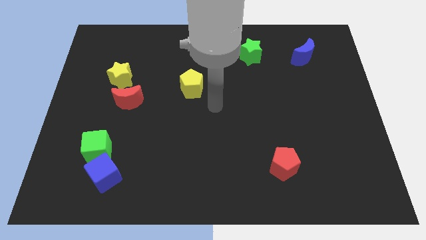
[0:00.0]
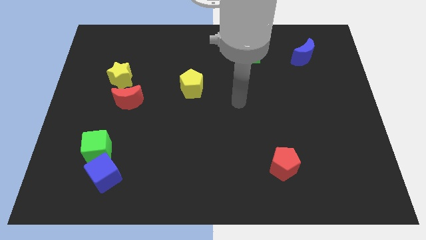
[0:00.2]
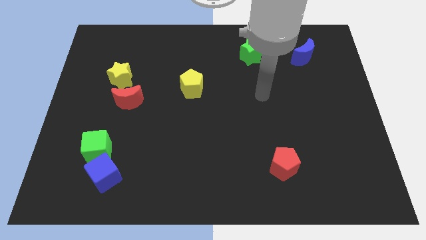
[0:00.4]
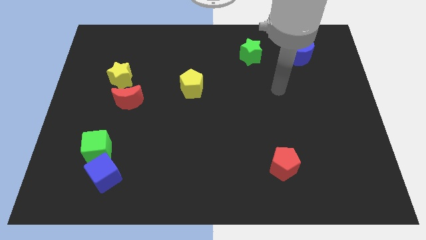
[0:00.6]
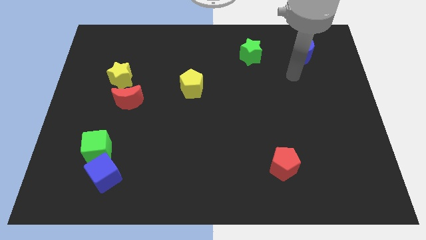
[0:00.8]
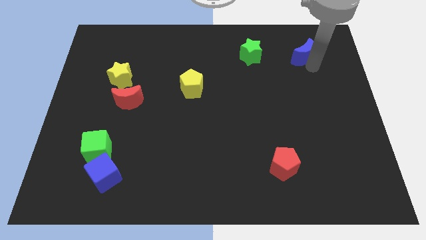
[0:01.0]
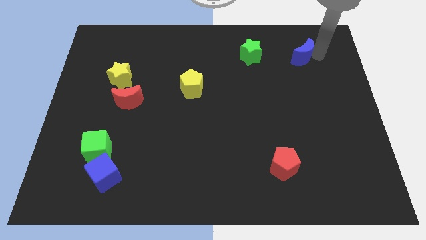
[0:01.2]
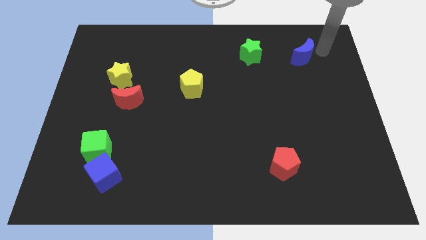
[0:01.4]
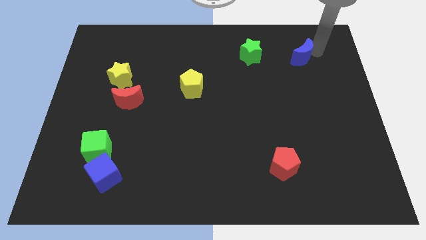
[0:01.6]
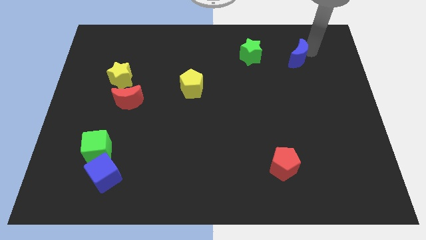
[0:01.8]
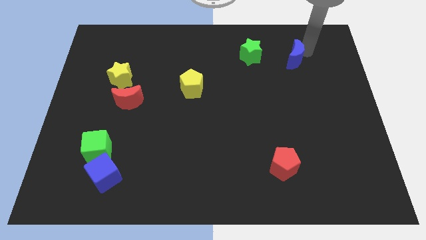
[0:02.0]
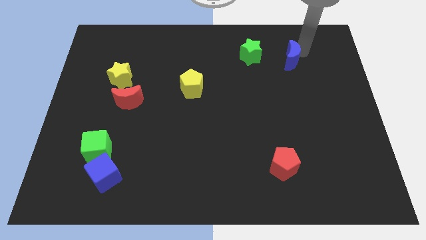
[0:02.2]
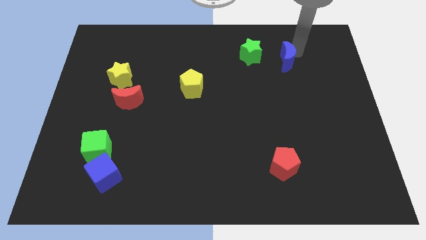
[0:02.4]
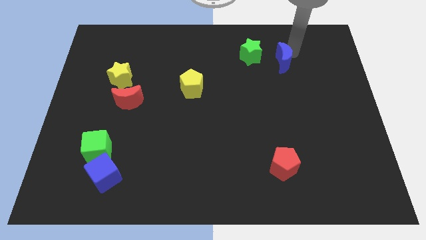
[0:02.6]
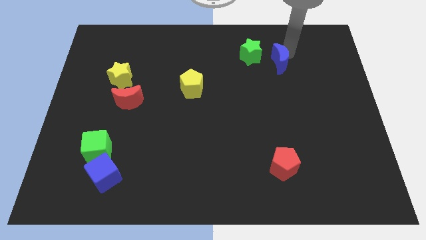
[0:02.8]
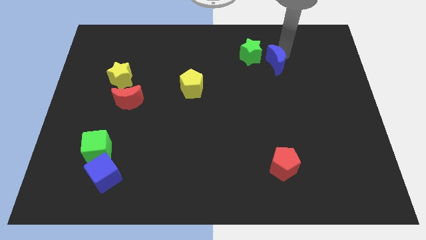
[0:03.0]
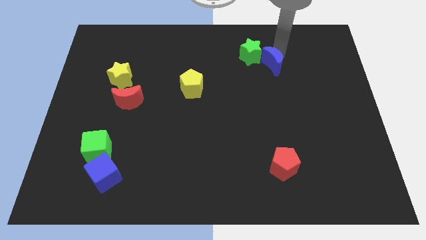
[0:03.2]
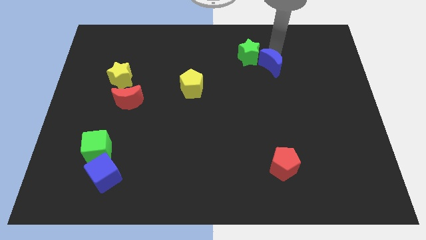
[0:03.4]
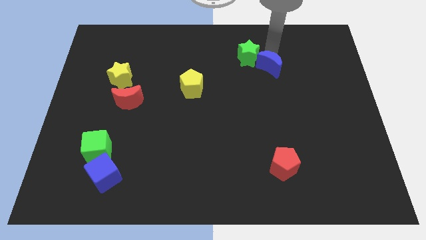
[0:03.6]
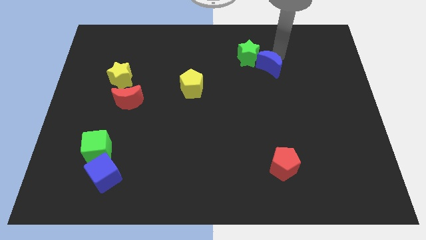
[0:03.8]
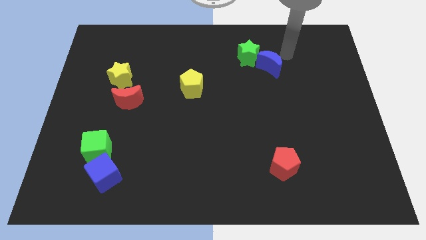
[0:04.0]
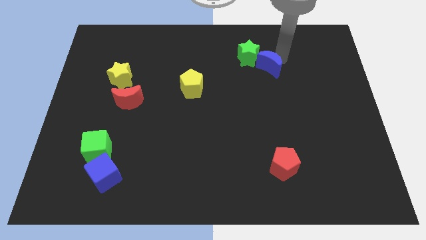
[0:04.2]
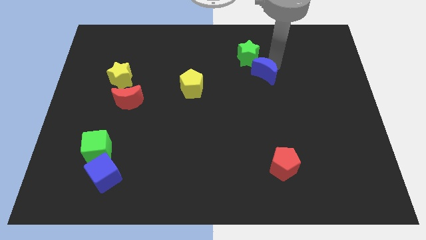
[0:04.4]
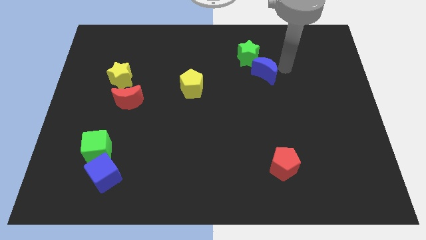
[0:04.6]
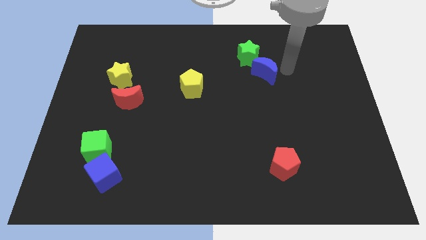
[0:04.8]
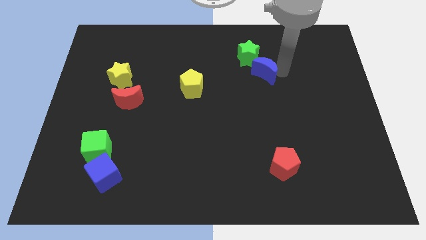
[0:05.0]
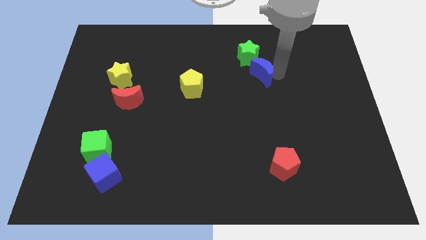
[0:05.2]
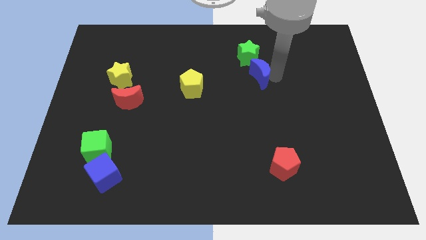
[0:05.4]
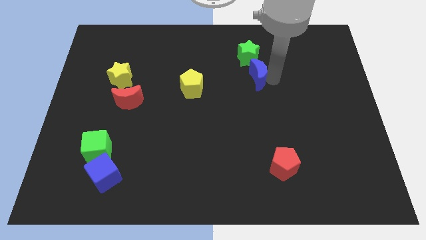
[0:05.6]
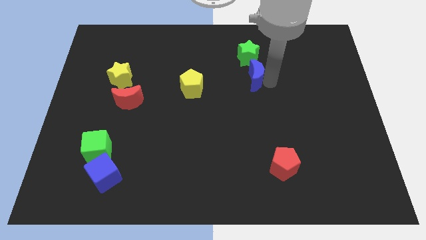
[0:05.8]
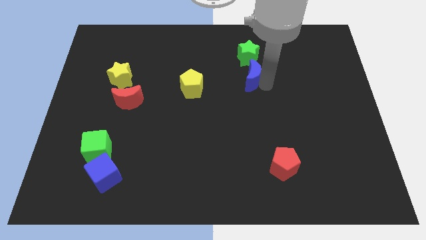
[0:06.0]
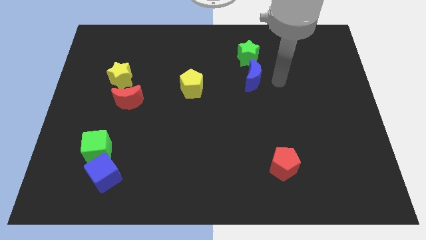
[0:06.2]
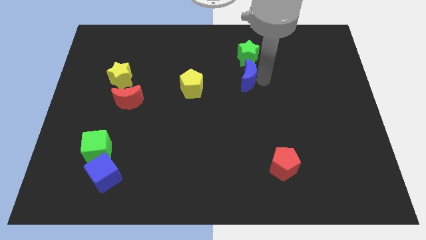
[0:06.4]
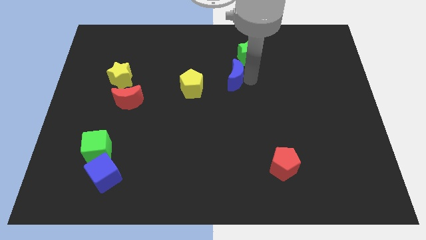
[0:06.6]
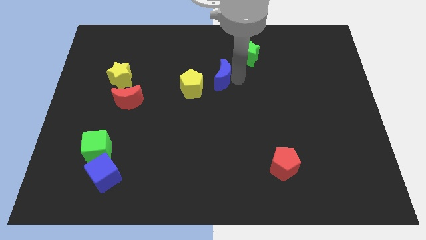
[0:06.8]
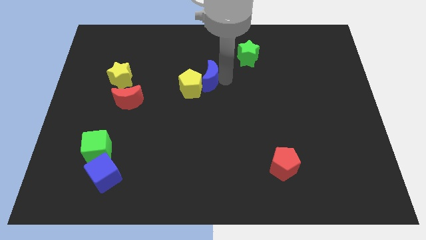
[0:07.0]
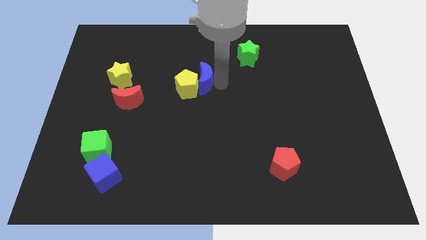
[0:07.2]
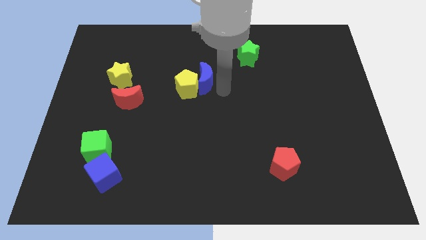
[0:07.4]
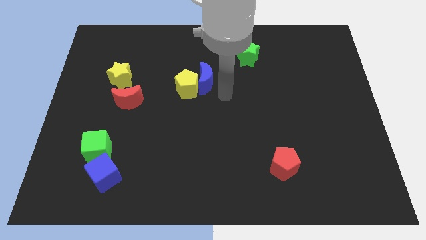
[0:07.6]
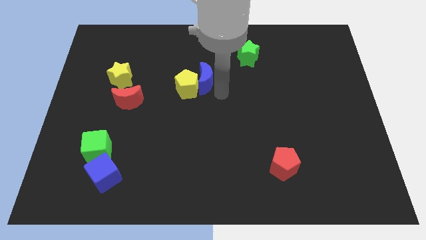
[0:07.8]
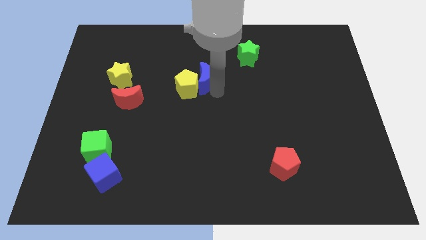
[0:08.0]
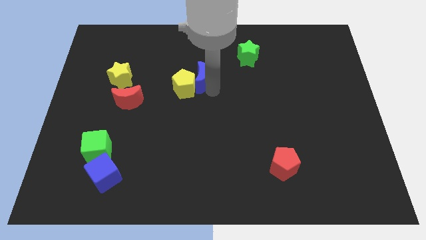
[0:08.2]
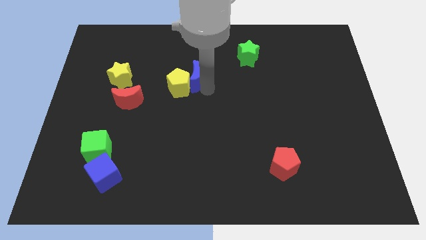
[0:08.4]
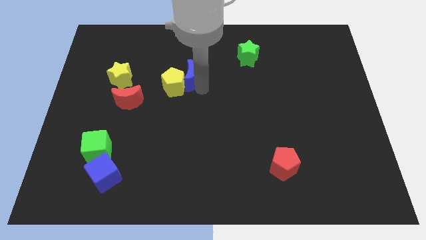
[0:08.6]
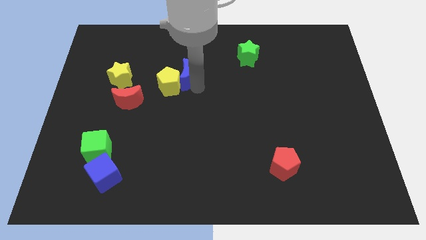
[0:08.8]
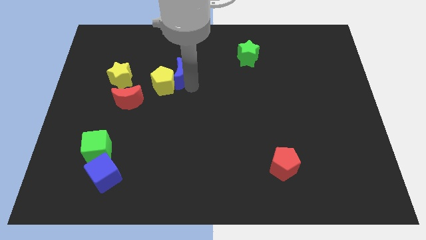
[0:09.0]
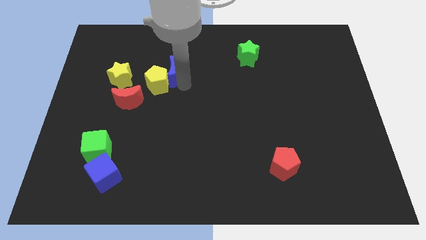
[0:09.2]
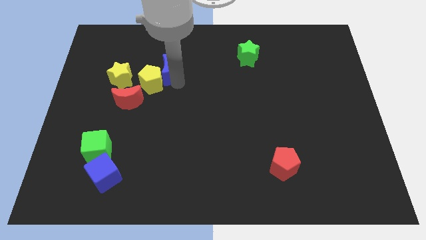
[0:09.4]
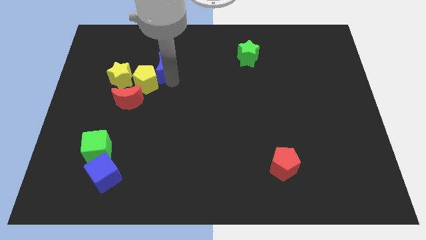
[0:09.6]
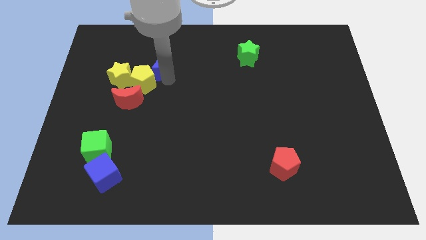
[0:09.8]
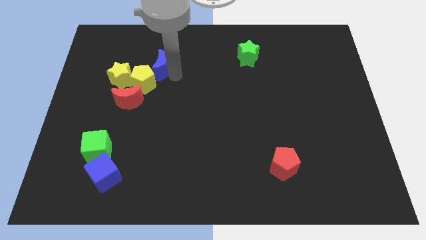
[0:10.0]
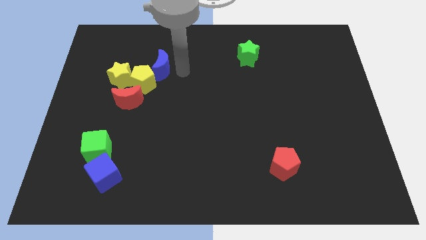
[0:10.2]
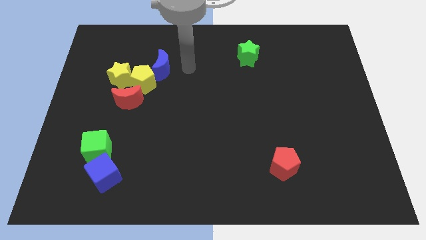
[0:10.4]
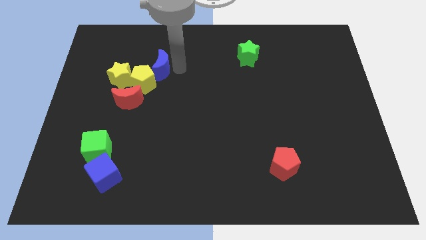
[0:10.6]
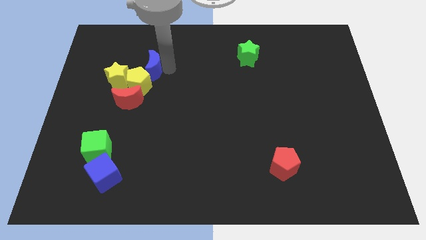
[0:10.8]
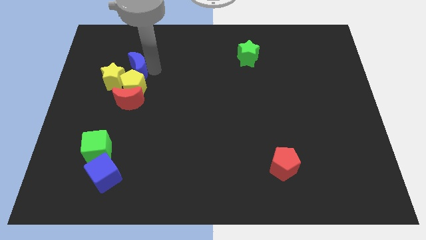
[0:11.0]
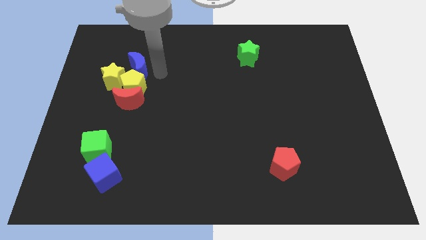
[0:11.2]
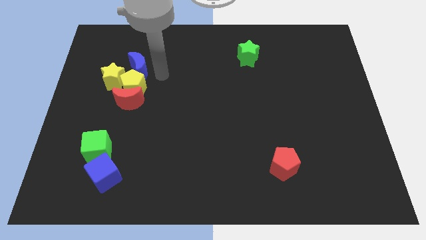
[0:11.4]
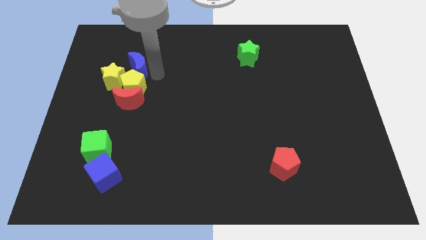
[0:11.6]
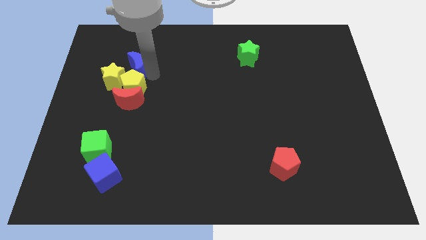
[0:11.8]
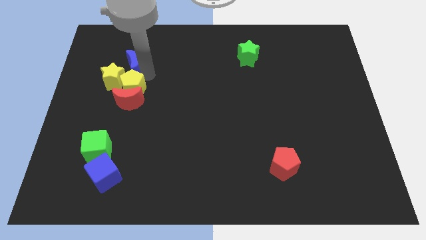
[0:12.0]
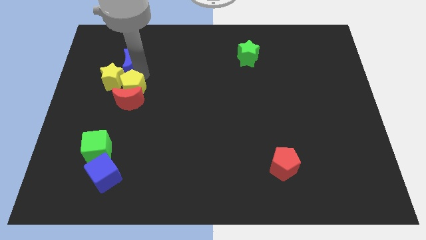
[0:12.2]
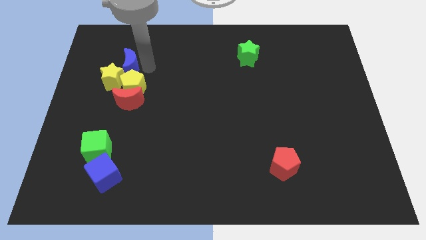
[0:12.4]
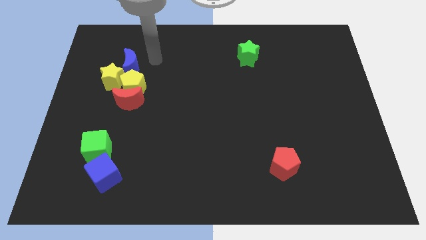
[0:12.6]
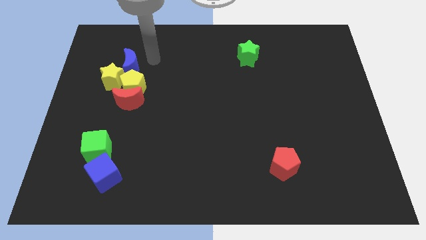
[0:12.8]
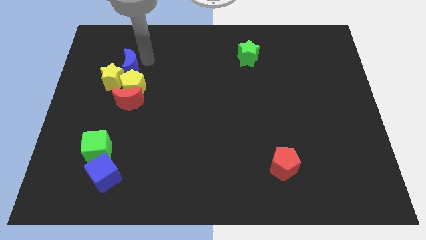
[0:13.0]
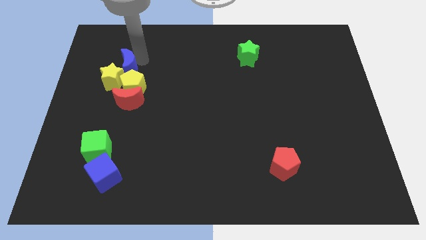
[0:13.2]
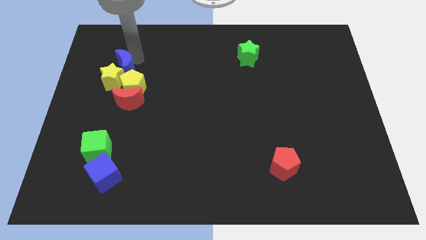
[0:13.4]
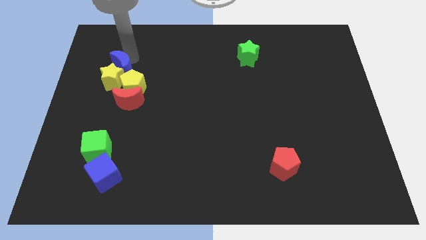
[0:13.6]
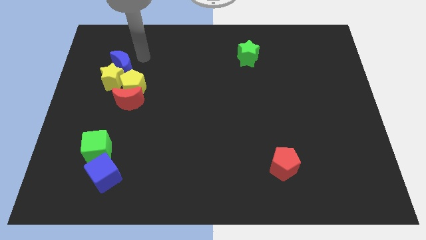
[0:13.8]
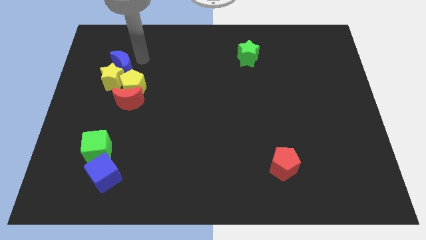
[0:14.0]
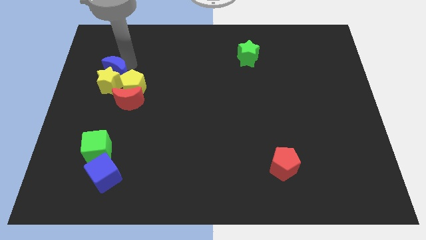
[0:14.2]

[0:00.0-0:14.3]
move the blue moon to the top left of the red moon
